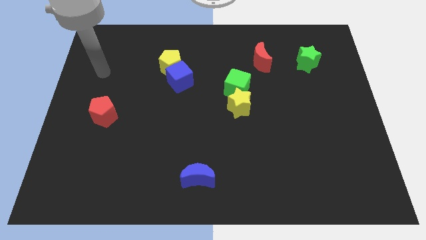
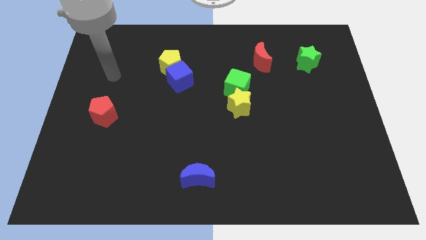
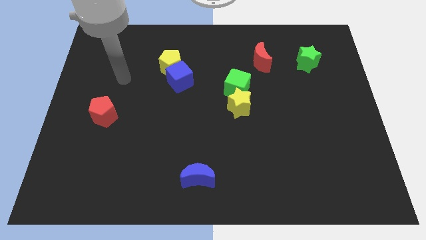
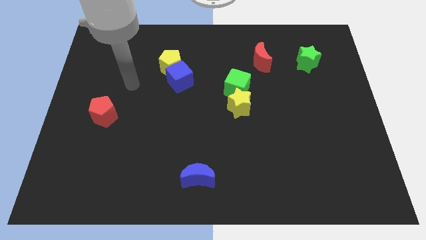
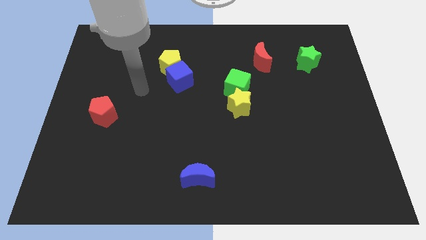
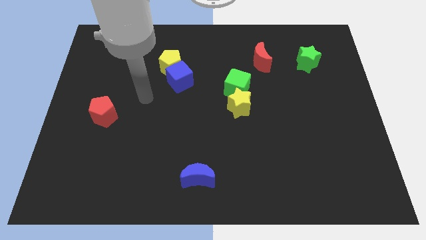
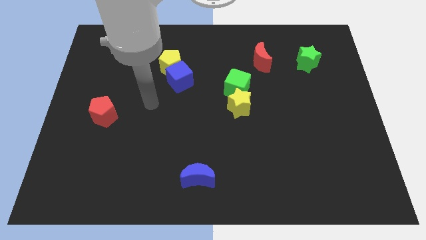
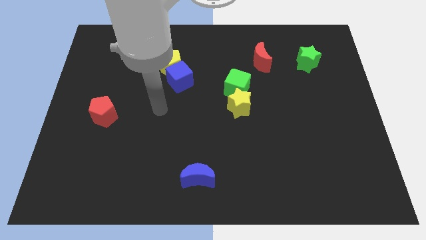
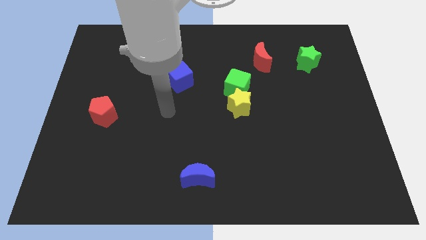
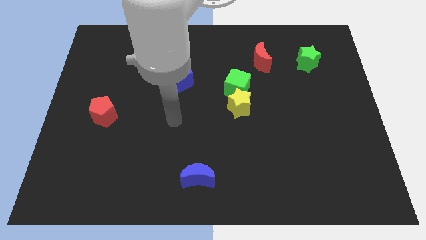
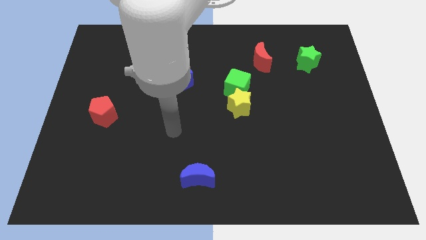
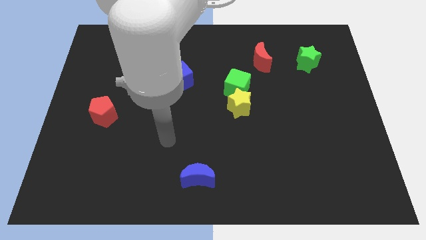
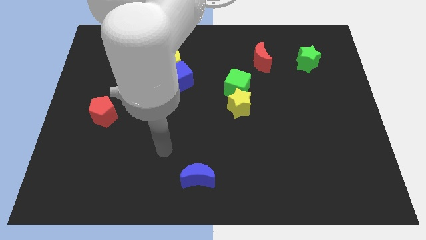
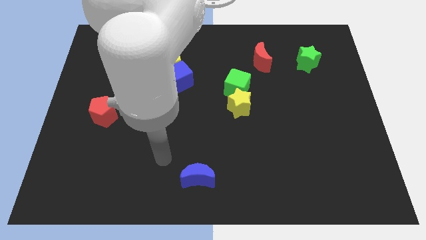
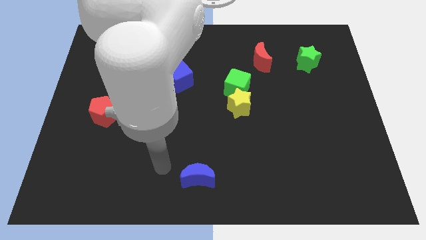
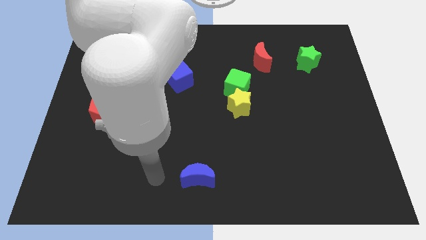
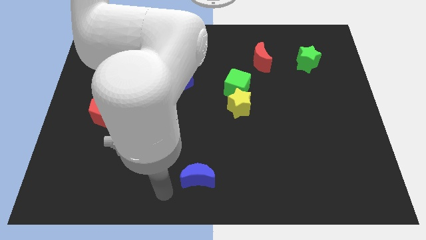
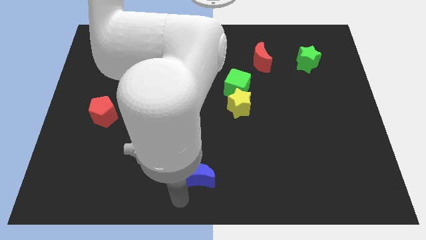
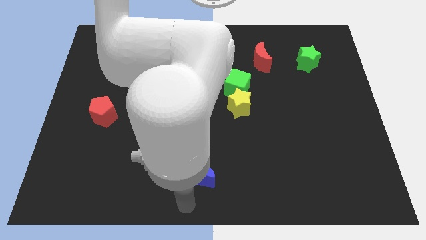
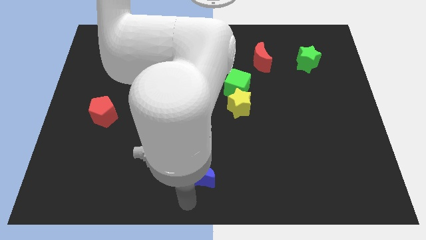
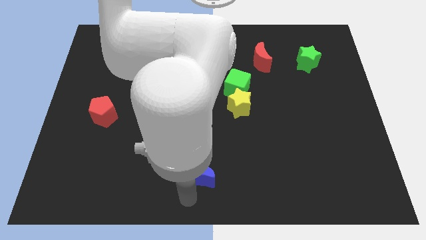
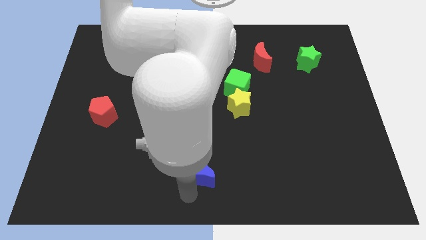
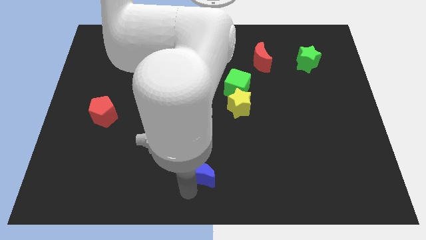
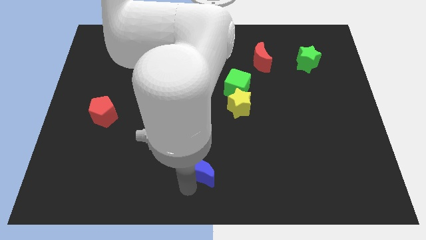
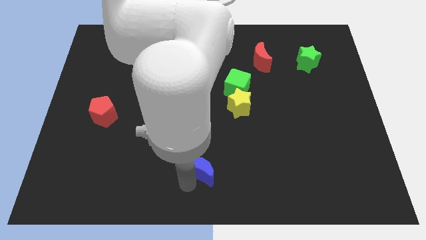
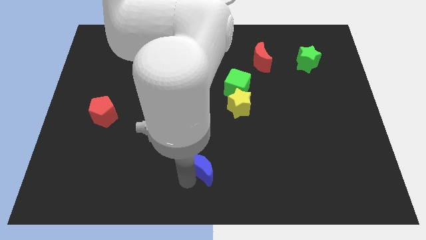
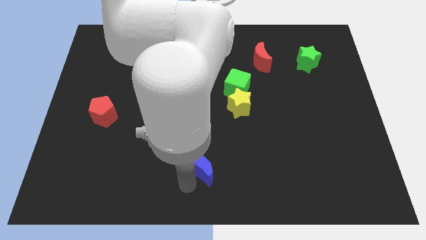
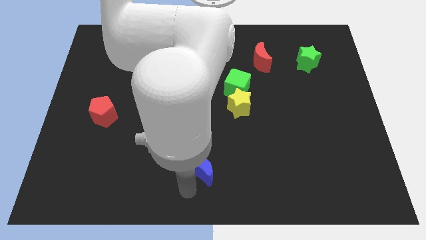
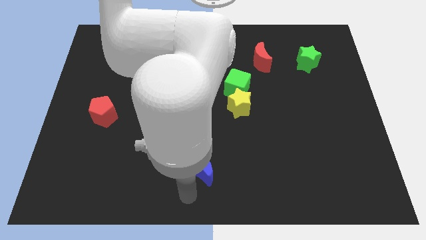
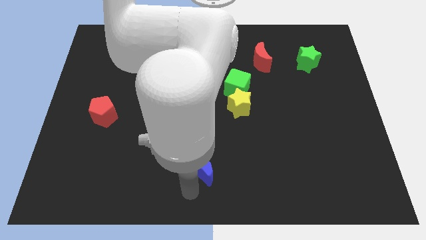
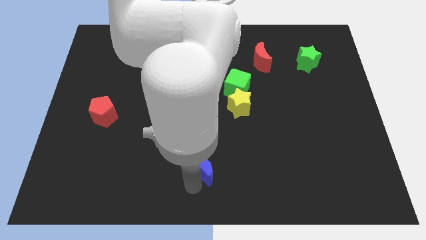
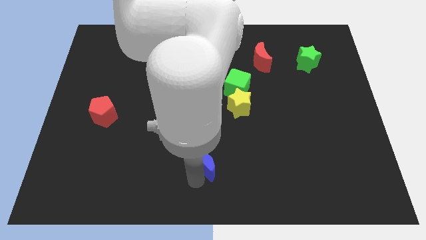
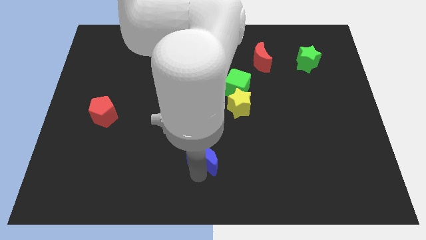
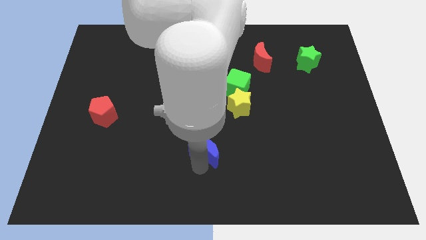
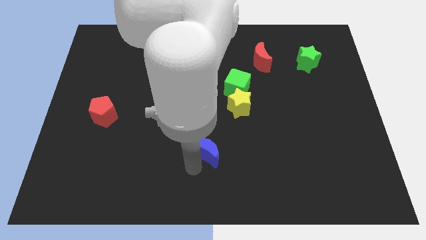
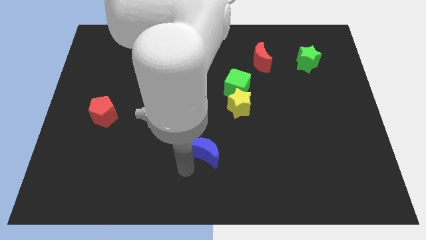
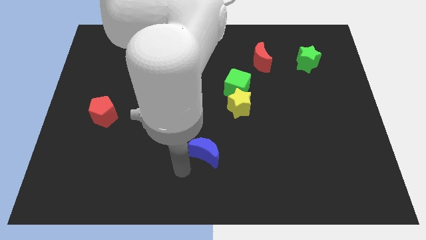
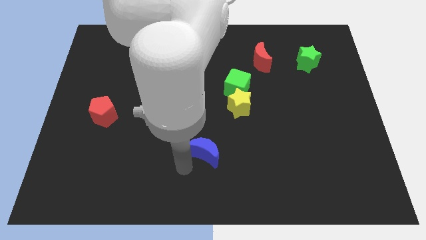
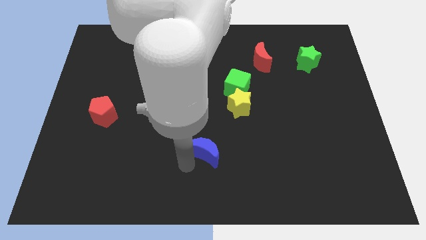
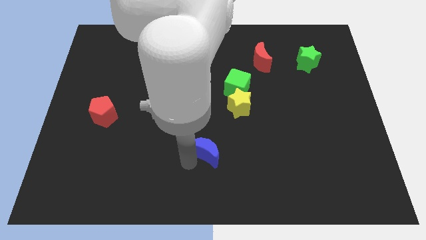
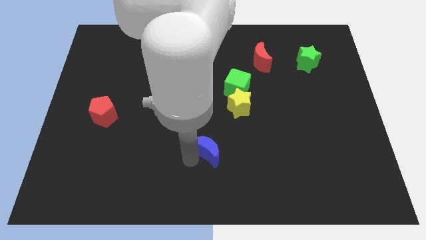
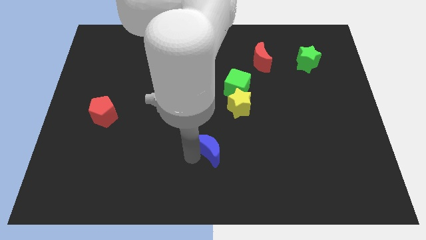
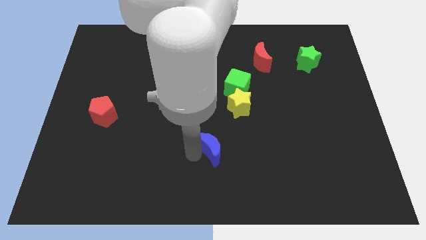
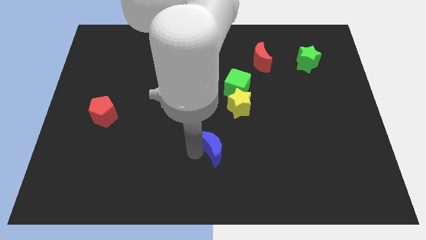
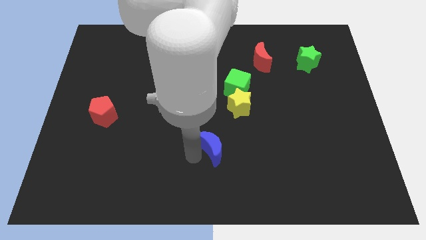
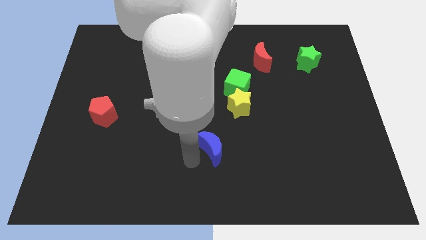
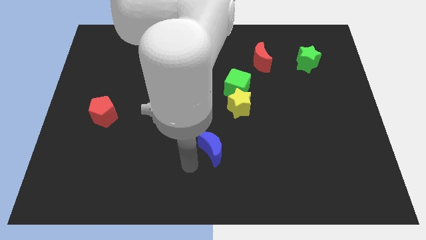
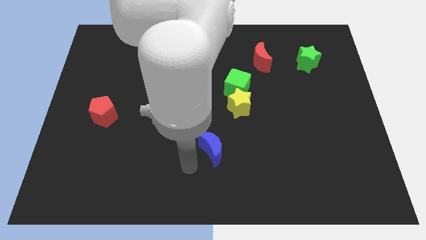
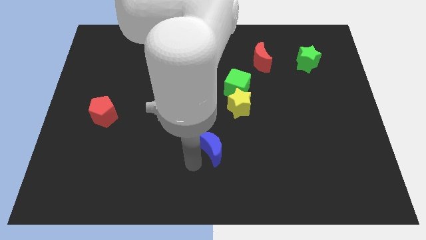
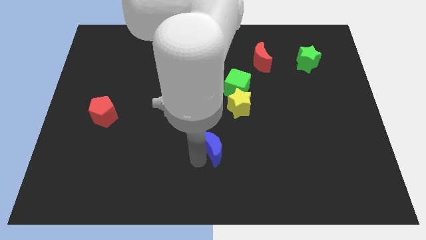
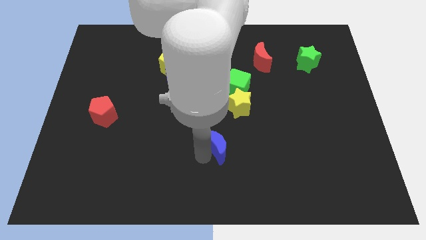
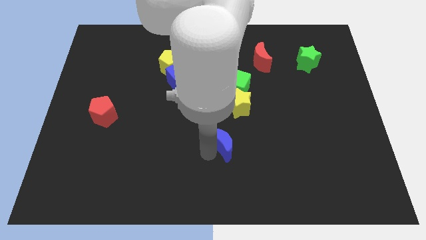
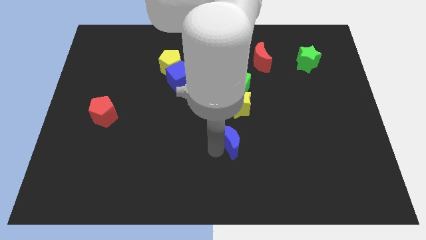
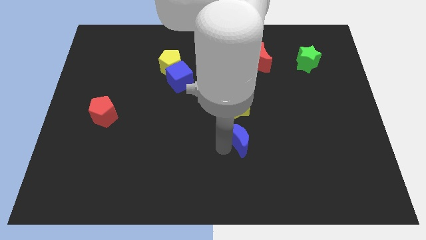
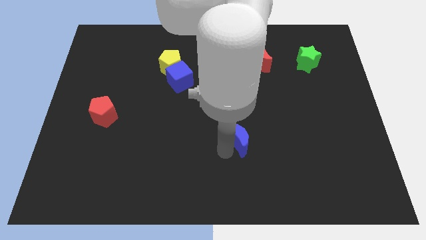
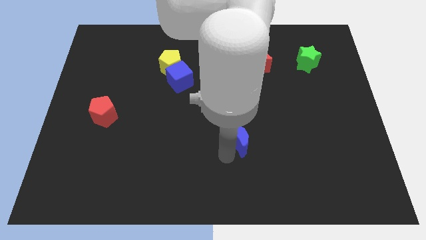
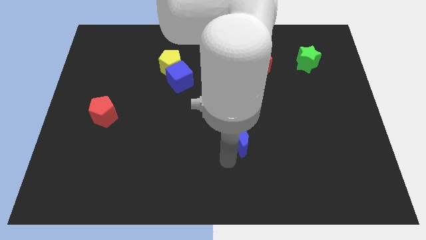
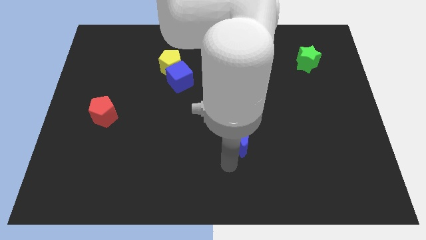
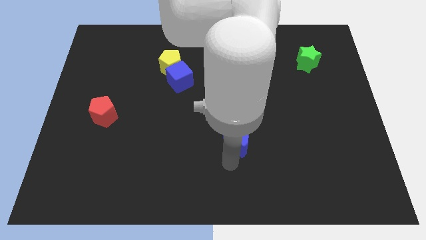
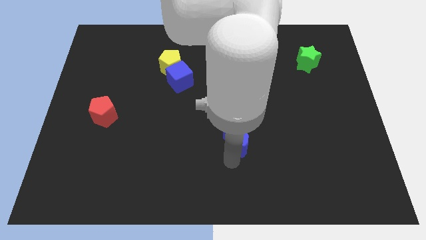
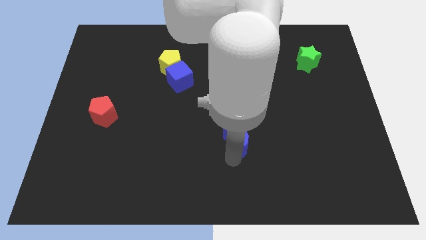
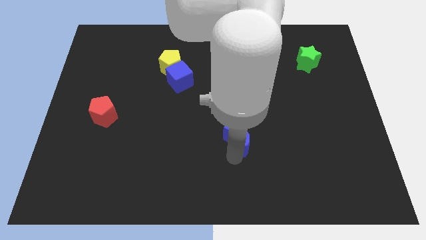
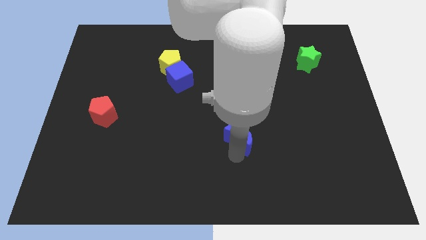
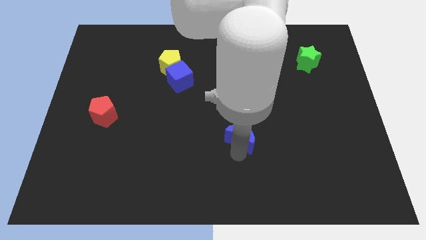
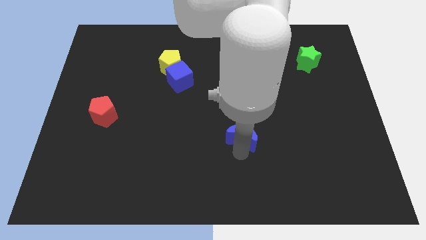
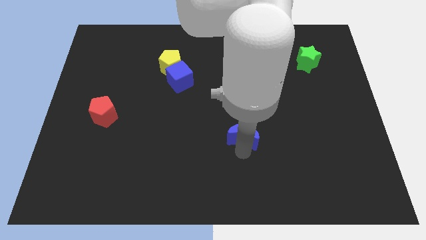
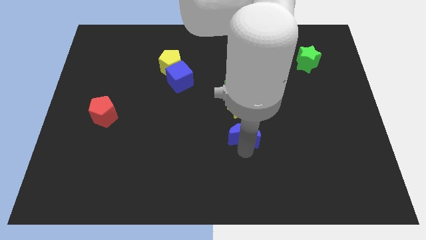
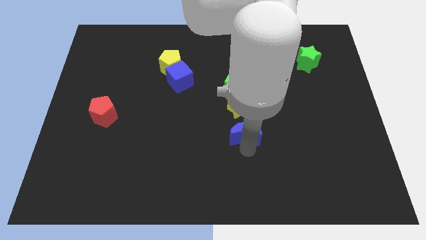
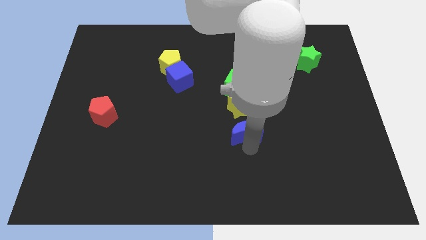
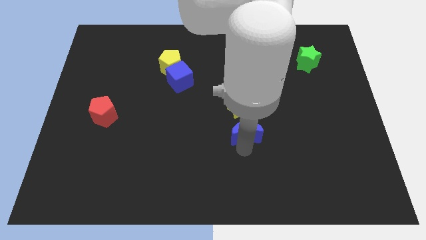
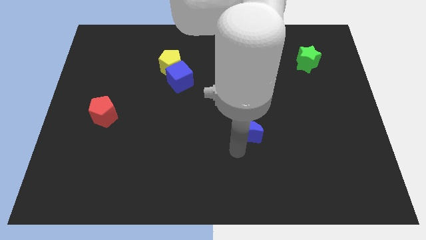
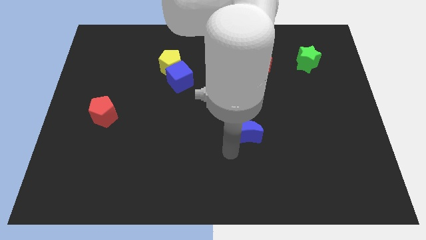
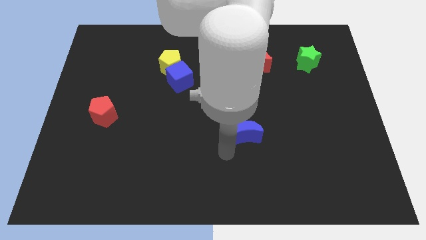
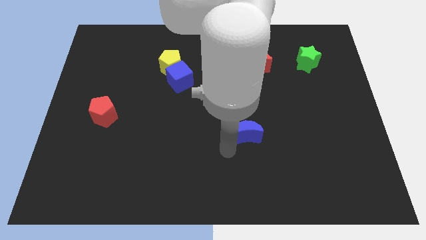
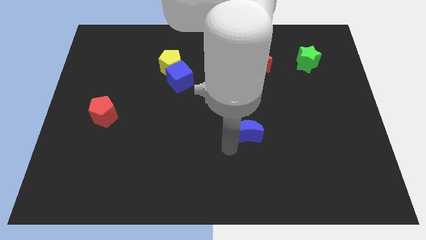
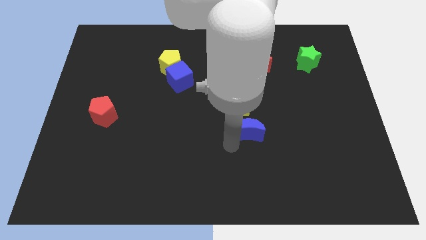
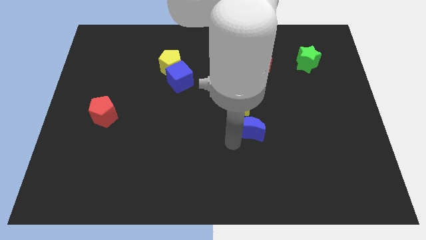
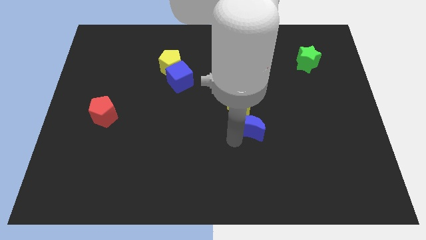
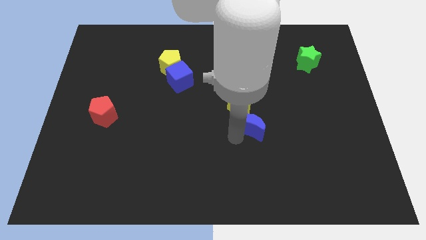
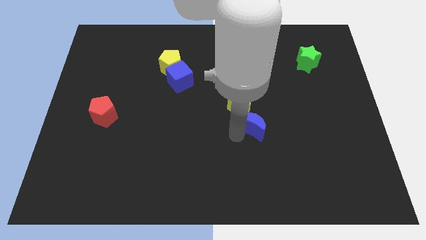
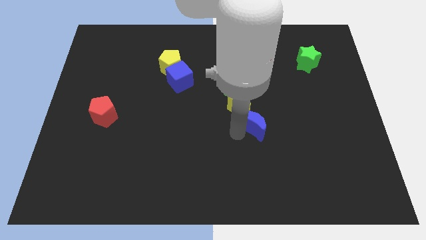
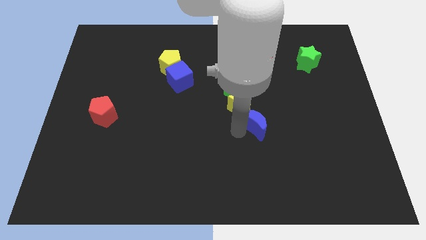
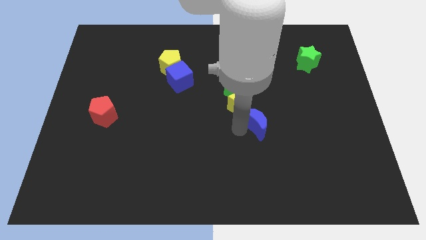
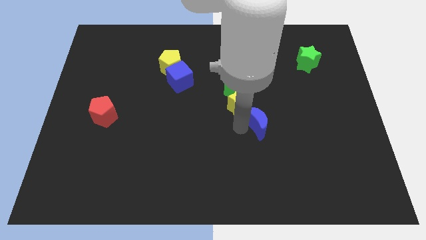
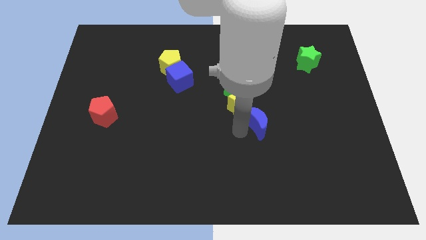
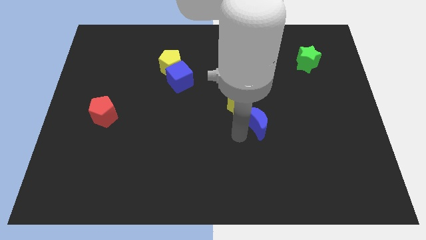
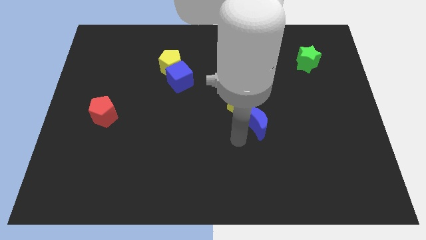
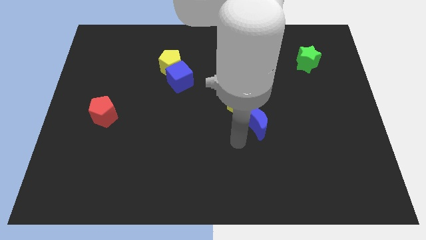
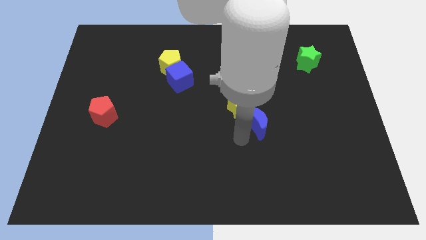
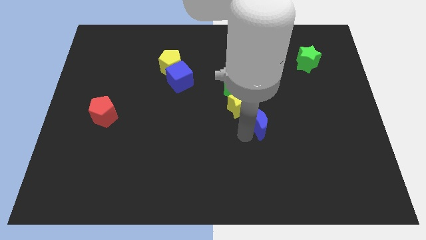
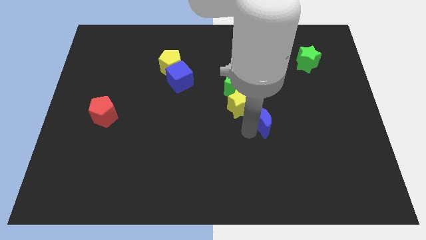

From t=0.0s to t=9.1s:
move the blue moon upwards and to the right diagonally
